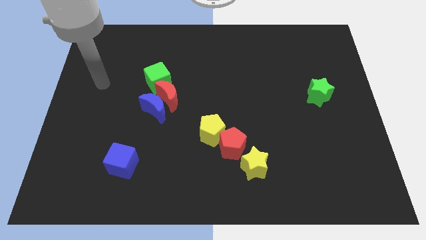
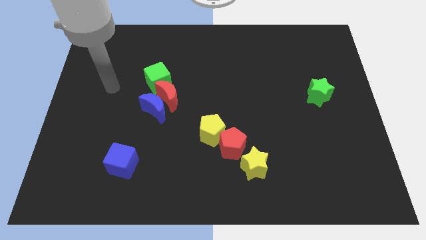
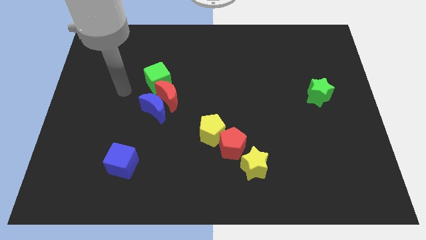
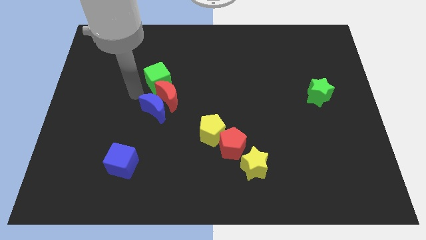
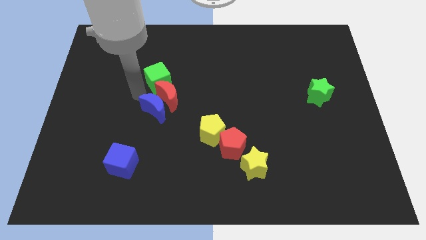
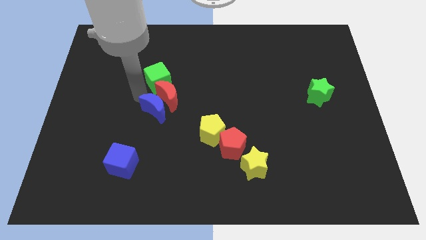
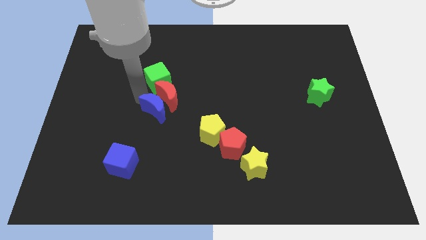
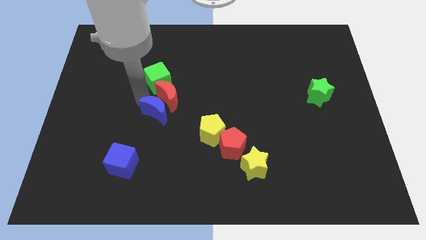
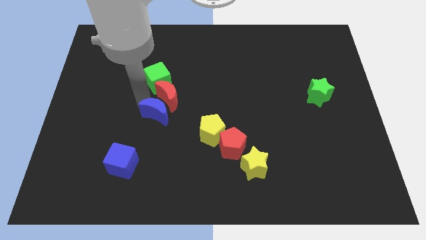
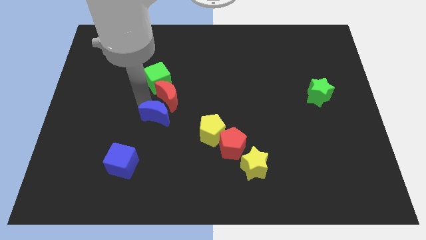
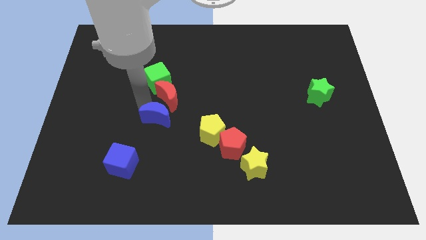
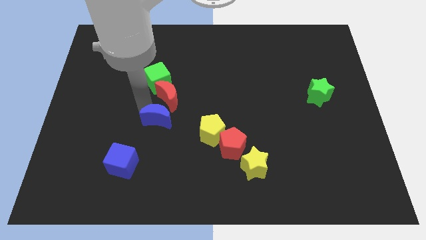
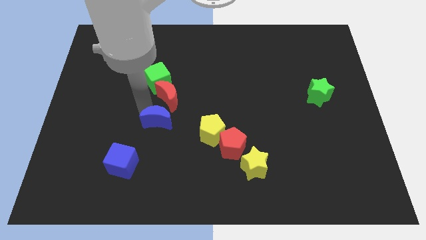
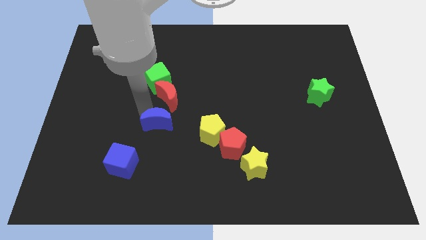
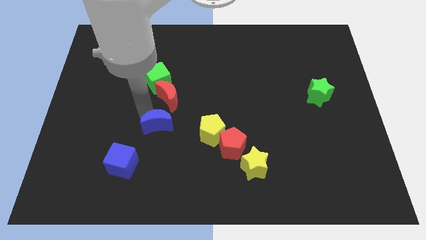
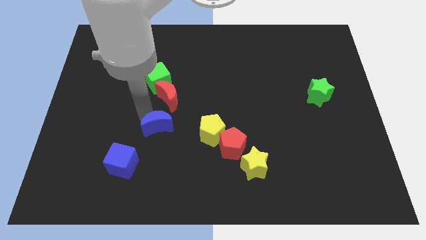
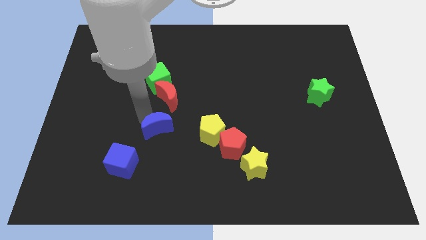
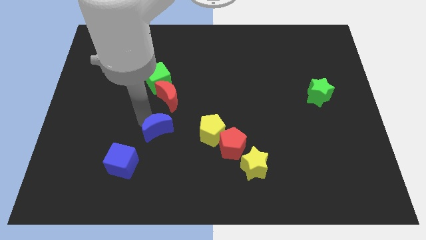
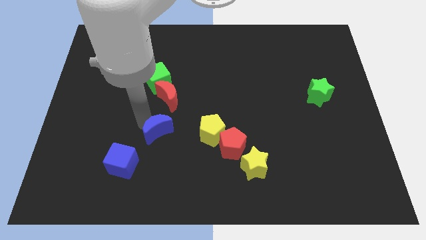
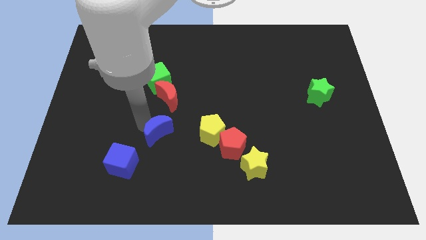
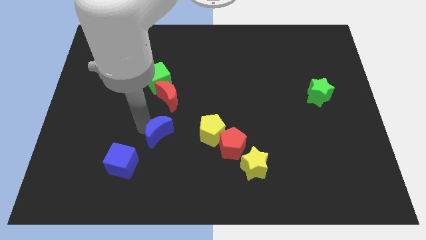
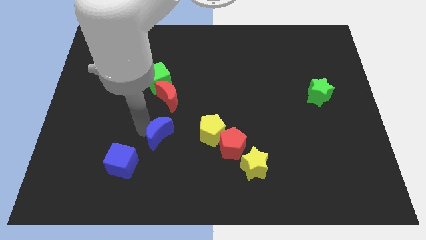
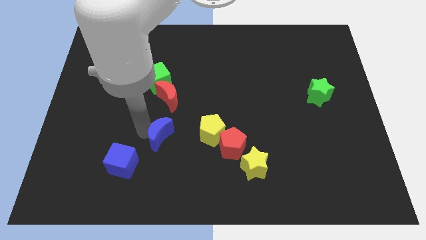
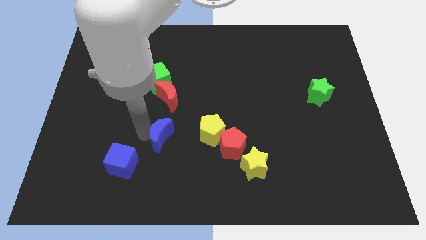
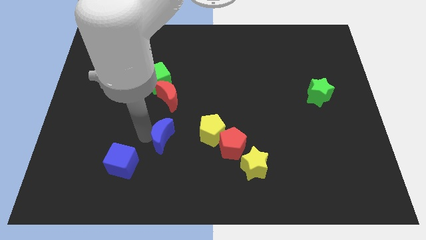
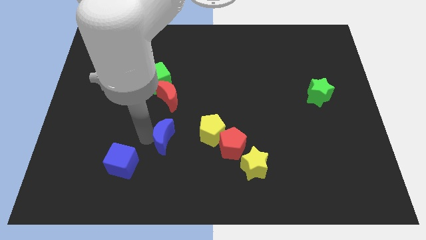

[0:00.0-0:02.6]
move the blue moon down and then to the right somewhat

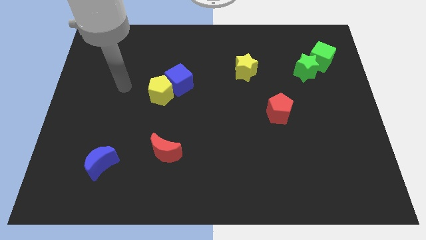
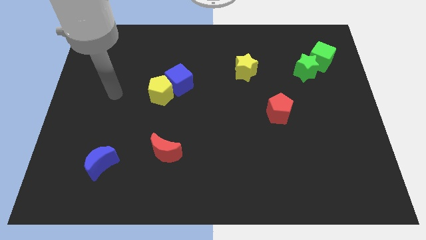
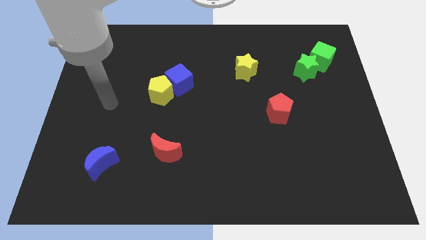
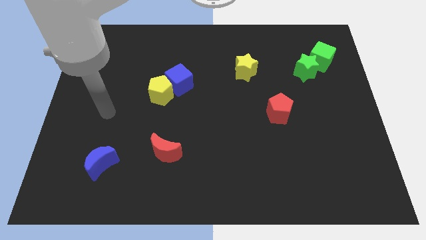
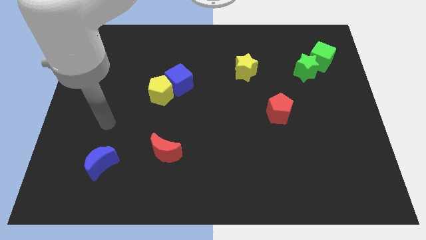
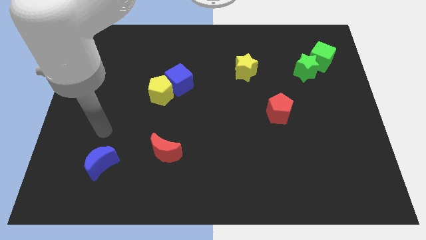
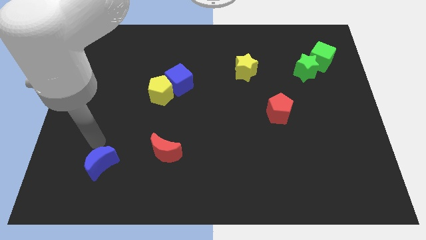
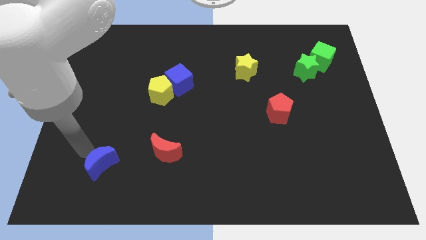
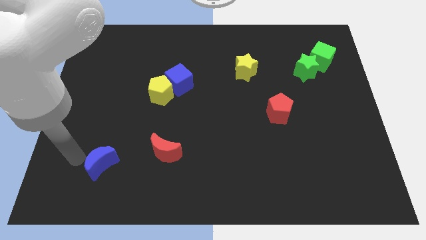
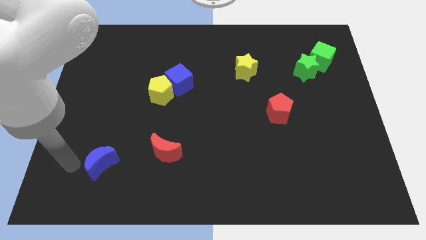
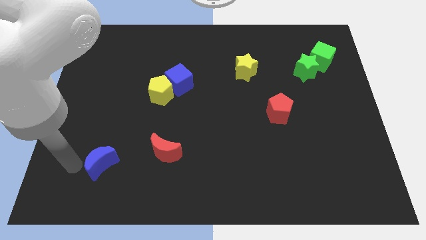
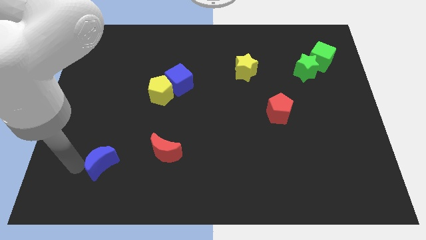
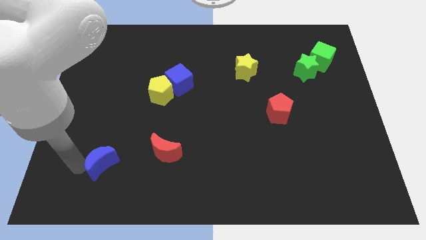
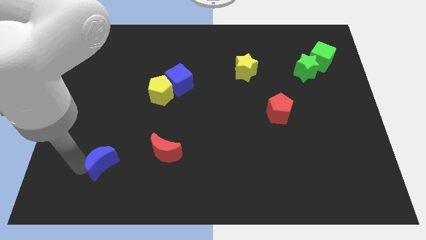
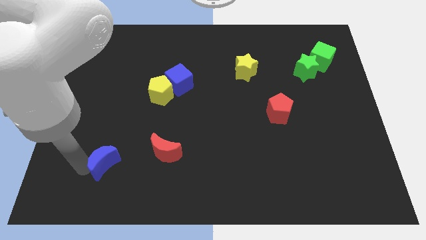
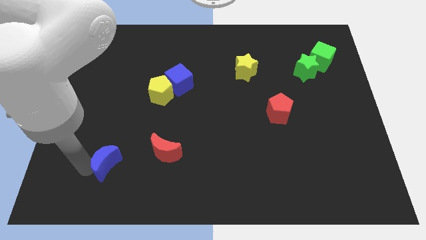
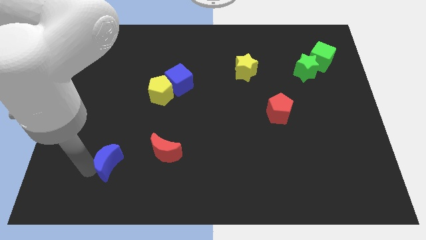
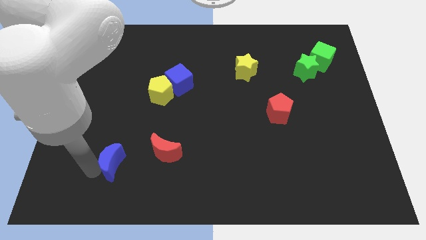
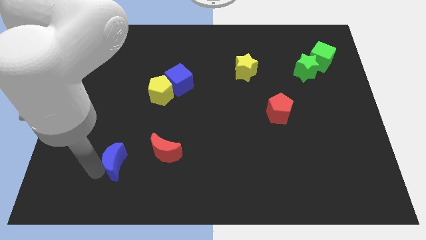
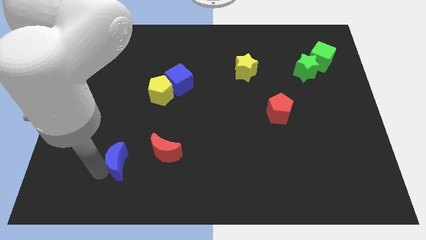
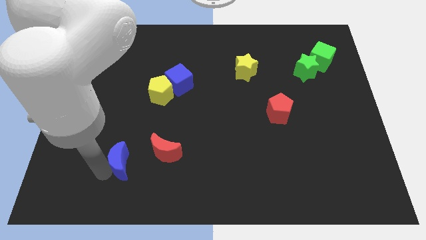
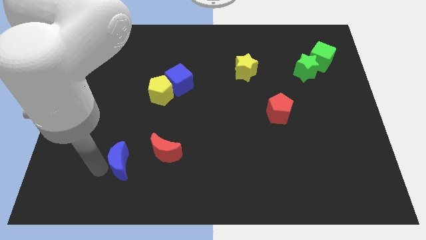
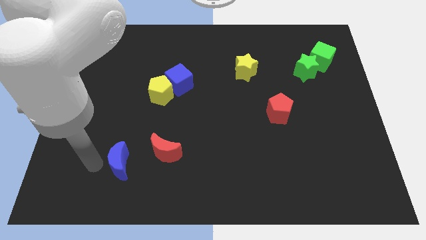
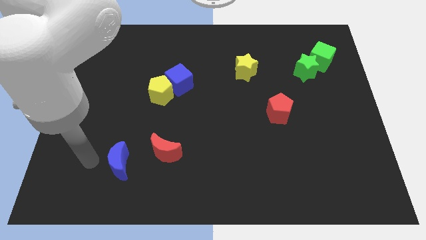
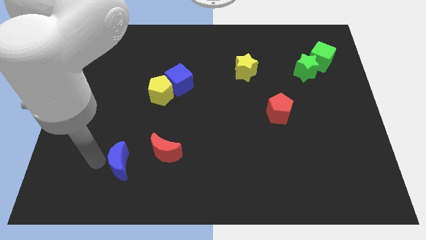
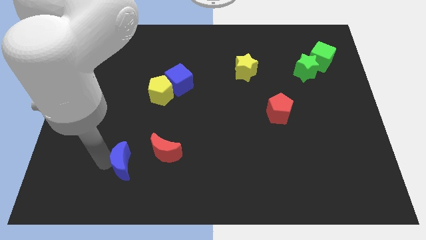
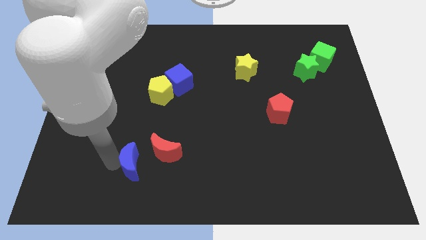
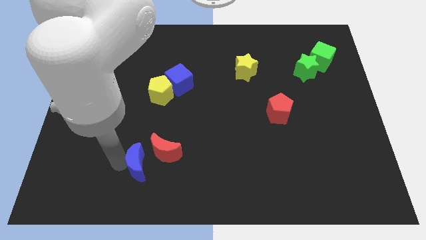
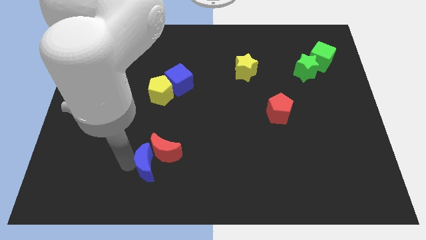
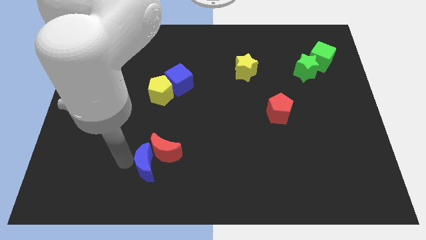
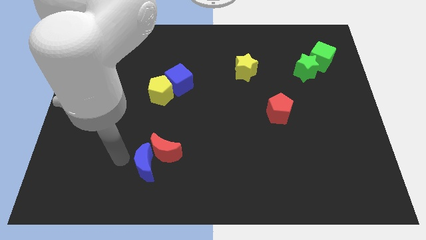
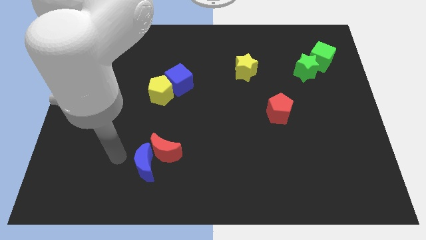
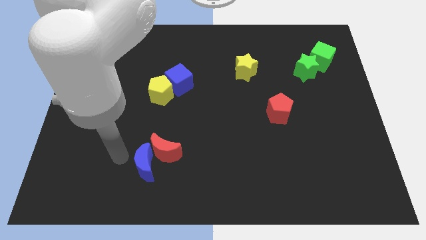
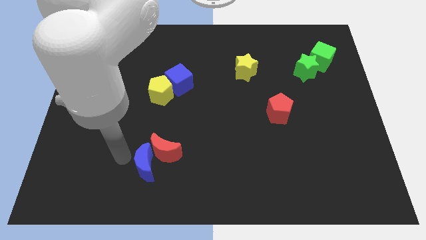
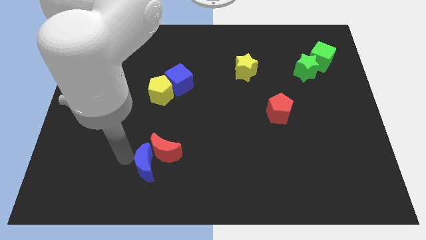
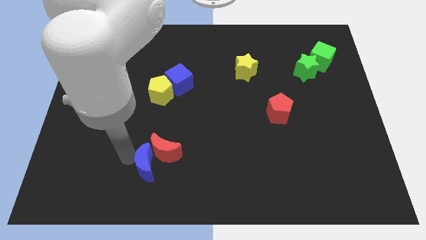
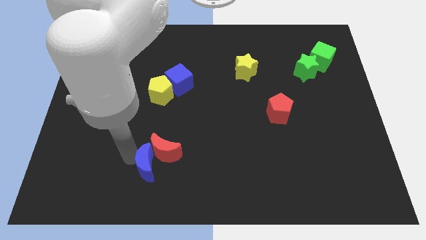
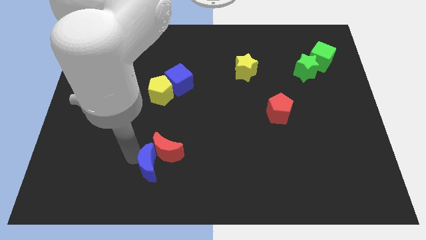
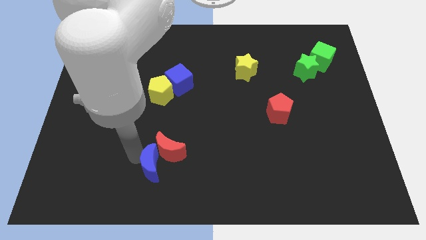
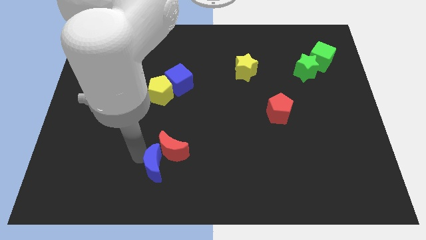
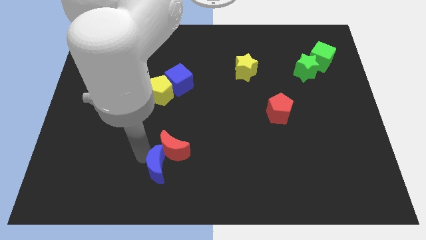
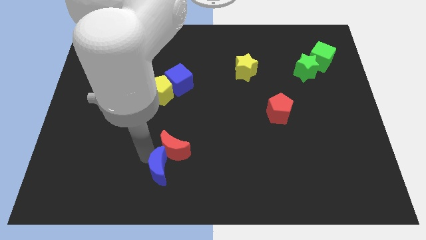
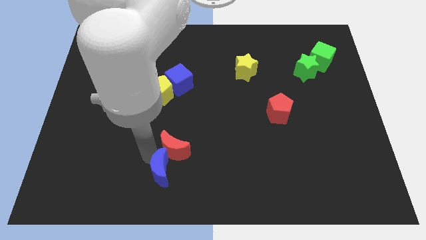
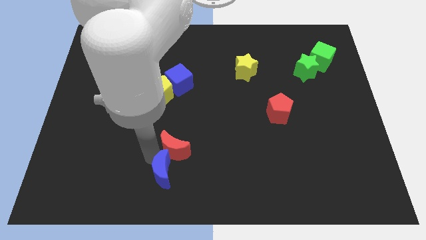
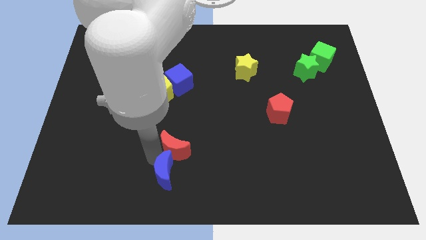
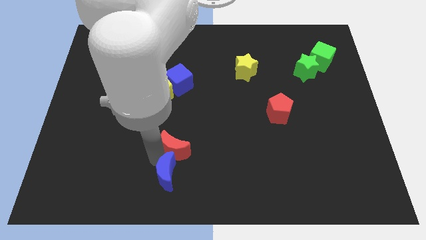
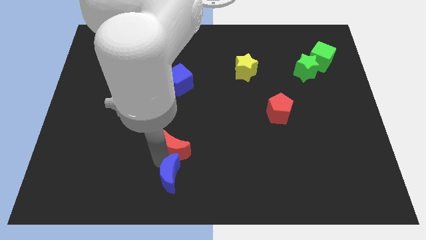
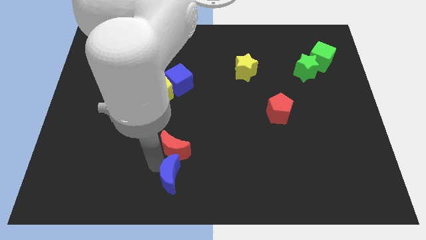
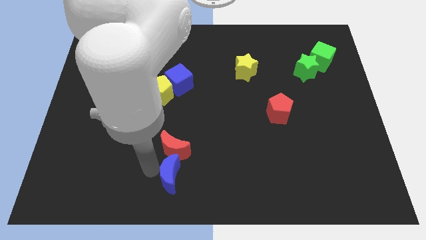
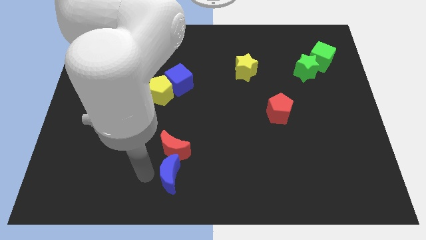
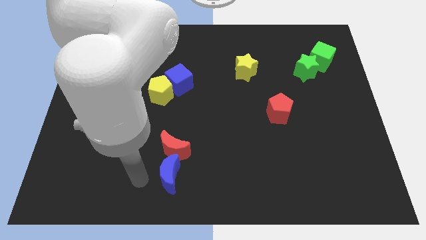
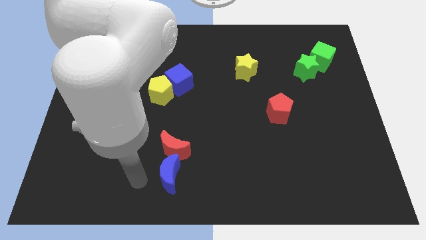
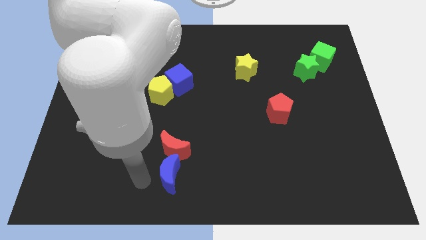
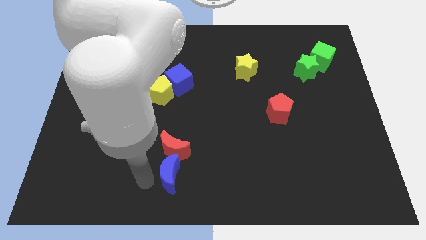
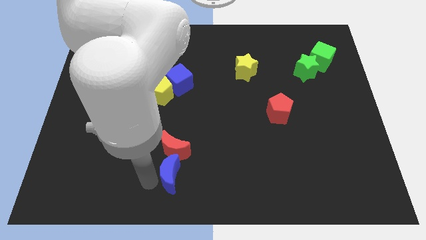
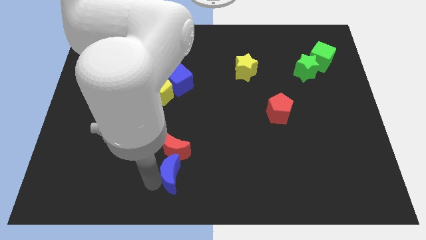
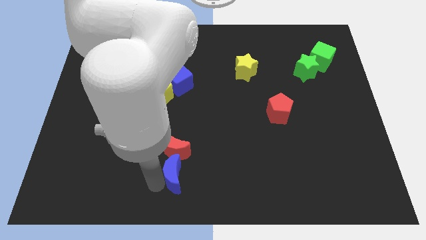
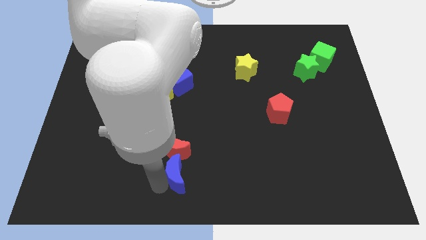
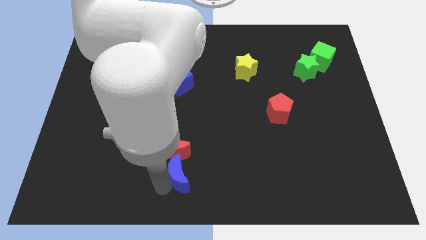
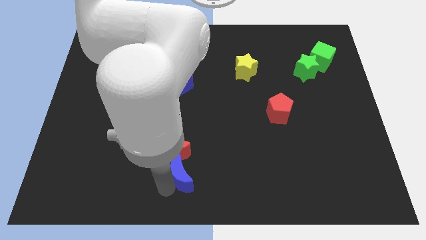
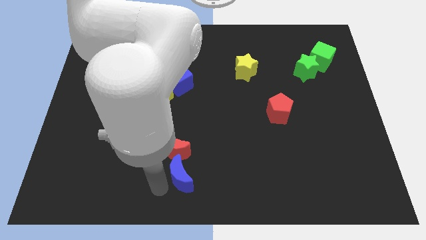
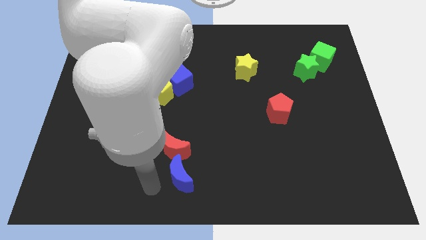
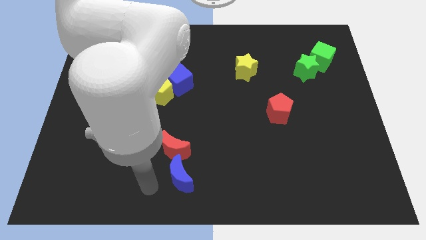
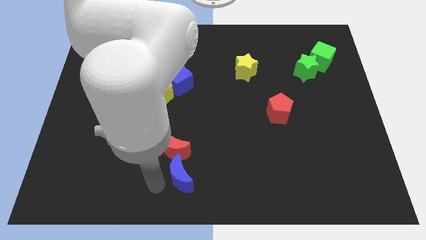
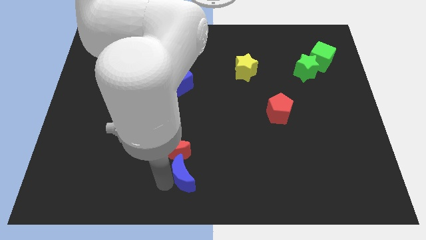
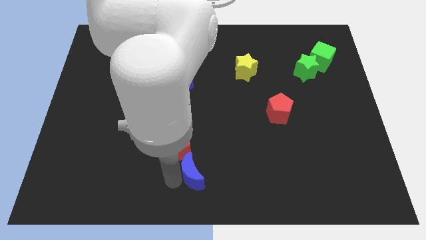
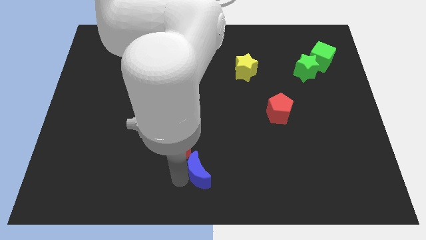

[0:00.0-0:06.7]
move the blue moon to the right
